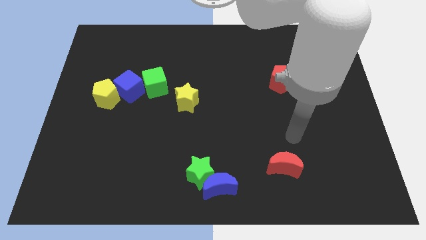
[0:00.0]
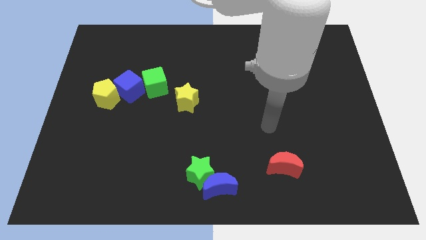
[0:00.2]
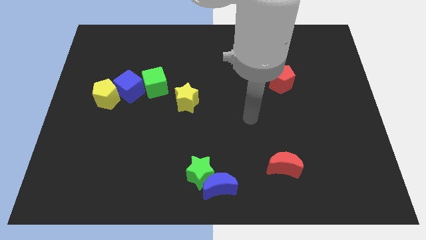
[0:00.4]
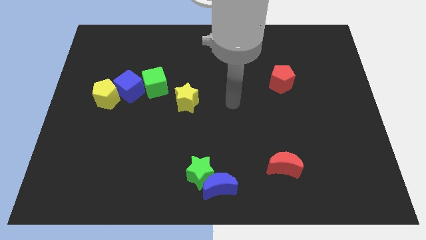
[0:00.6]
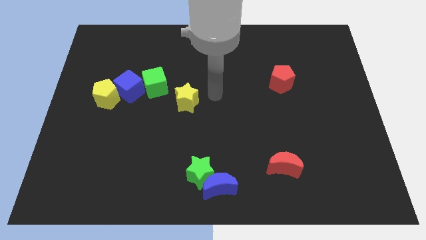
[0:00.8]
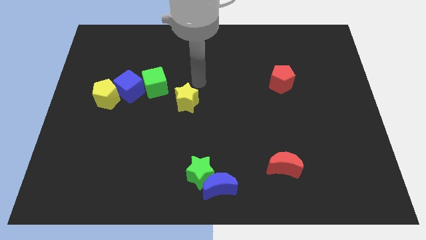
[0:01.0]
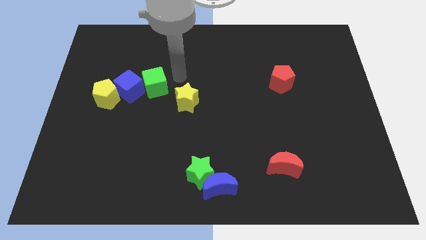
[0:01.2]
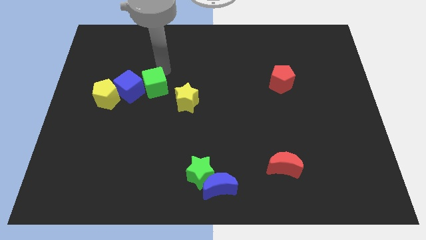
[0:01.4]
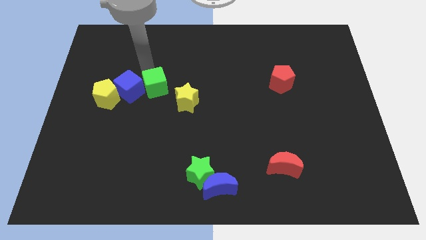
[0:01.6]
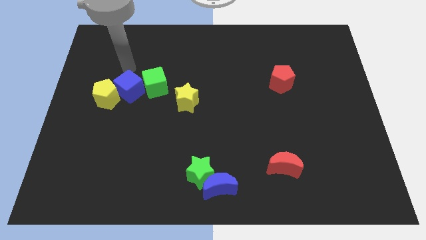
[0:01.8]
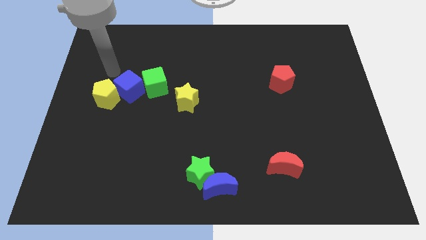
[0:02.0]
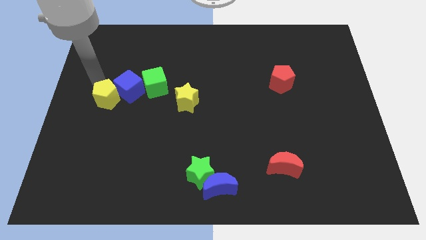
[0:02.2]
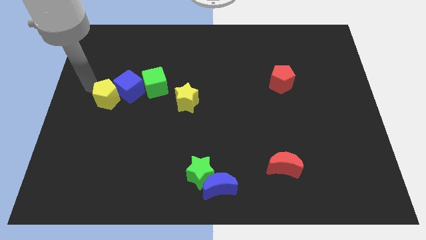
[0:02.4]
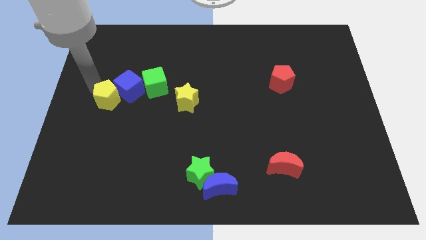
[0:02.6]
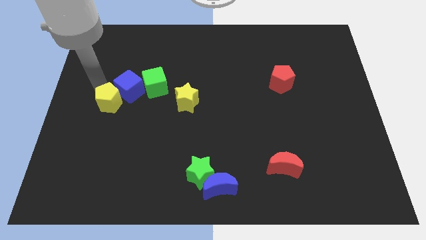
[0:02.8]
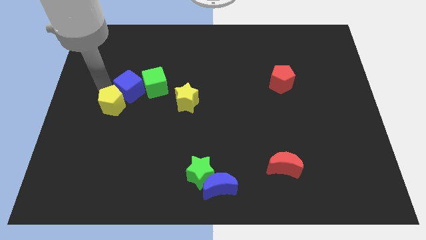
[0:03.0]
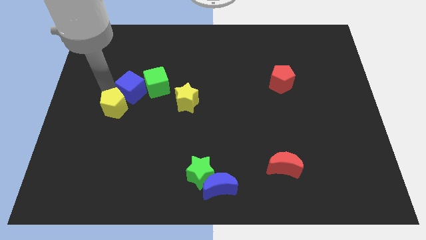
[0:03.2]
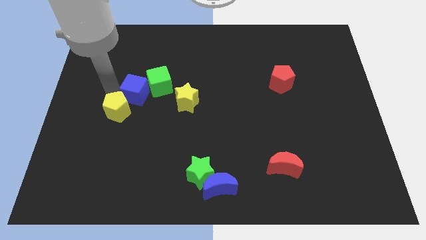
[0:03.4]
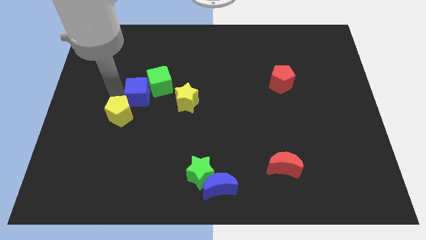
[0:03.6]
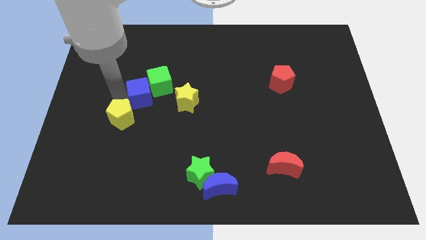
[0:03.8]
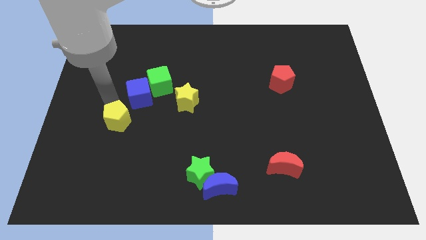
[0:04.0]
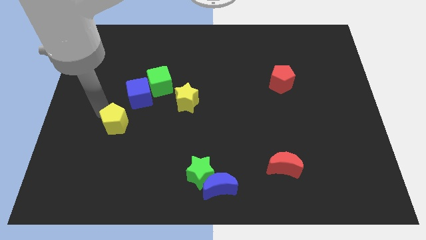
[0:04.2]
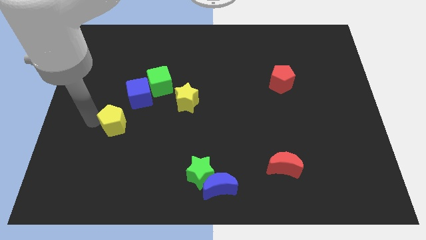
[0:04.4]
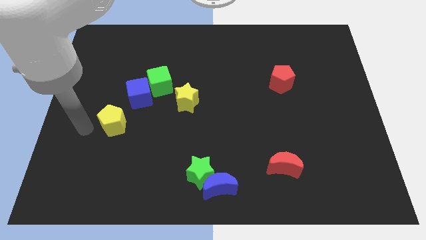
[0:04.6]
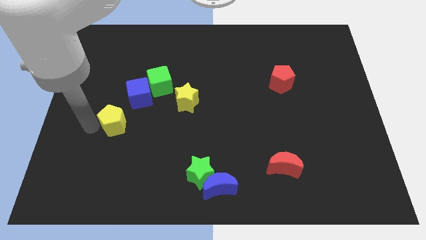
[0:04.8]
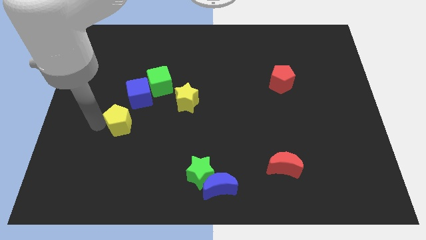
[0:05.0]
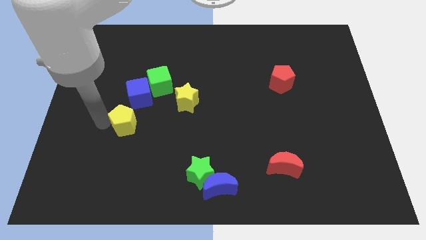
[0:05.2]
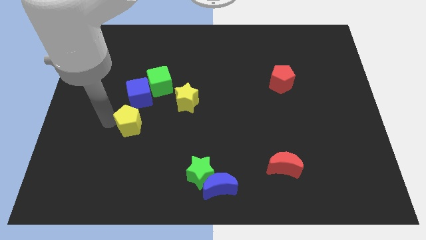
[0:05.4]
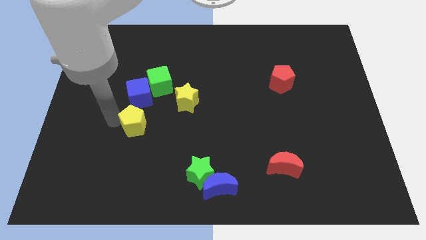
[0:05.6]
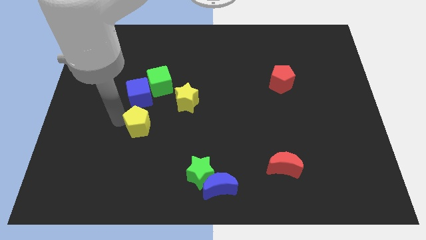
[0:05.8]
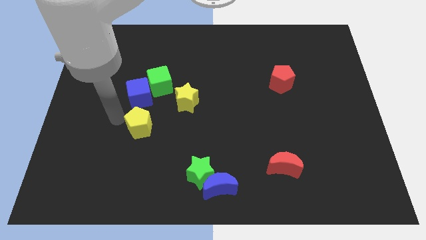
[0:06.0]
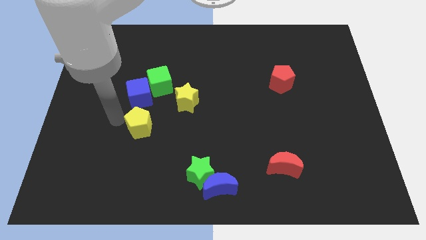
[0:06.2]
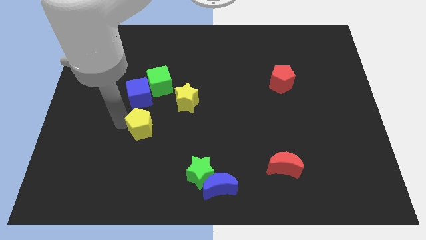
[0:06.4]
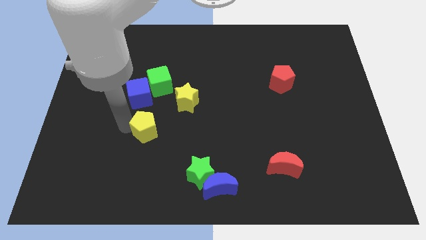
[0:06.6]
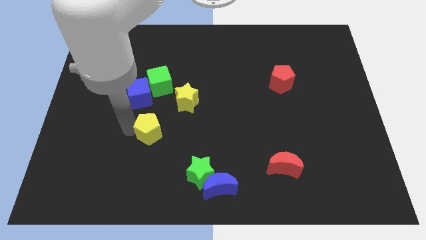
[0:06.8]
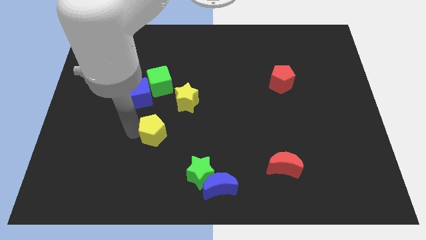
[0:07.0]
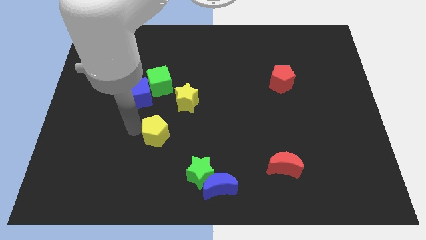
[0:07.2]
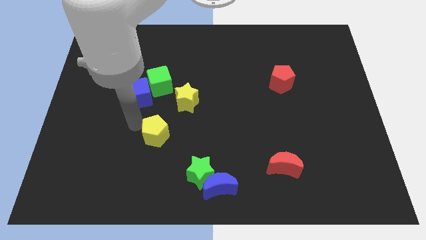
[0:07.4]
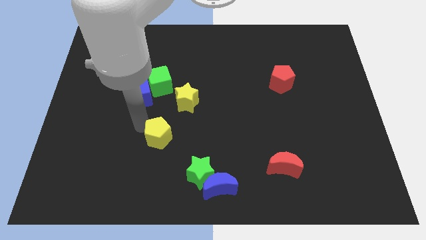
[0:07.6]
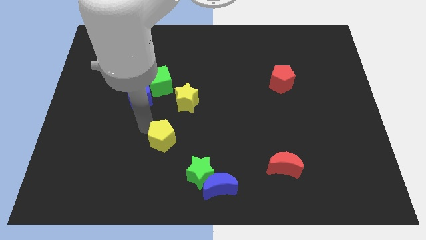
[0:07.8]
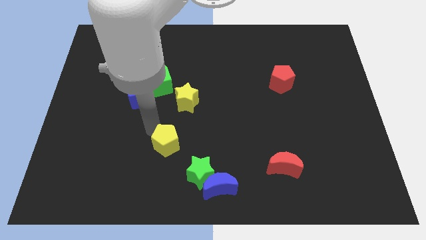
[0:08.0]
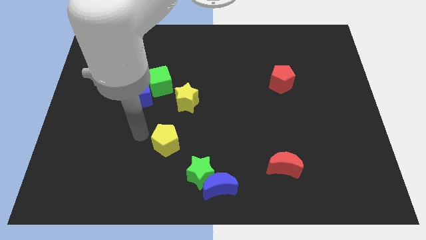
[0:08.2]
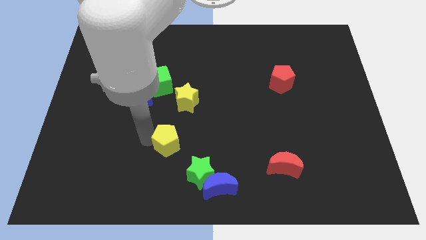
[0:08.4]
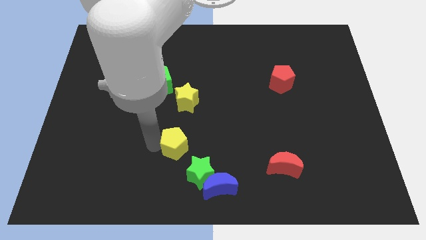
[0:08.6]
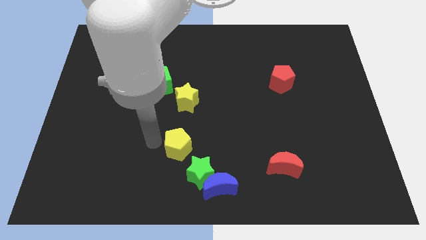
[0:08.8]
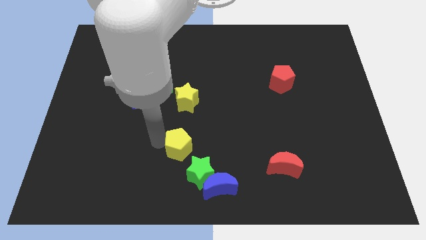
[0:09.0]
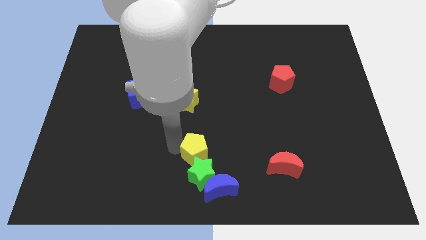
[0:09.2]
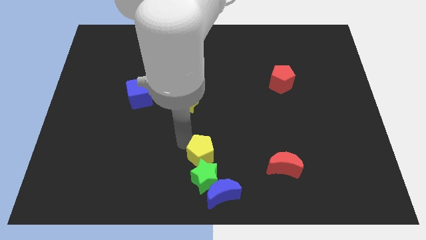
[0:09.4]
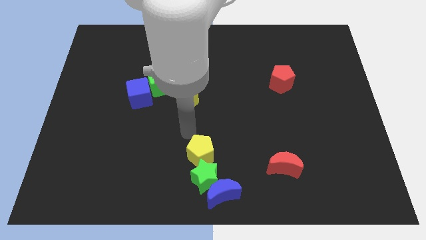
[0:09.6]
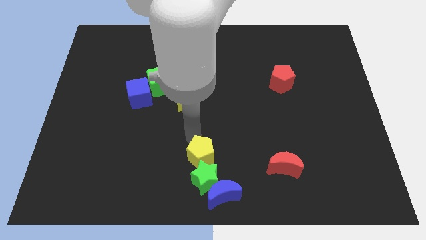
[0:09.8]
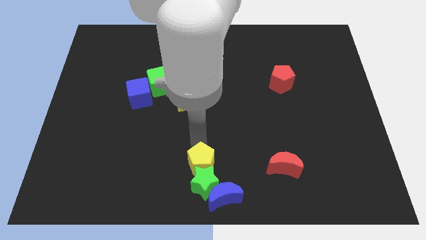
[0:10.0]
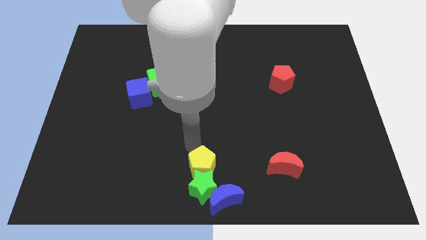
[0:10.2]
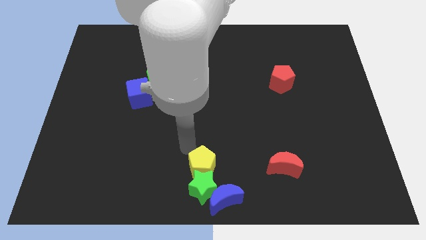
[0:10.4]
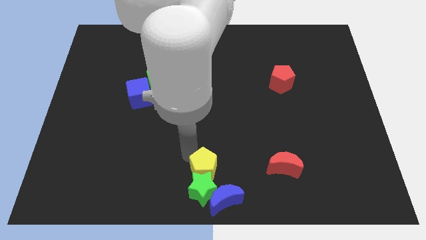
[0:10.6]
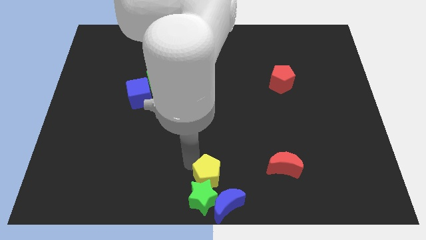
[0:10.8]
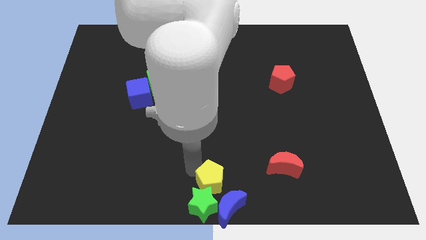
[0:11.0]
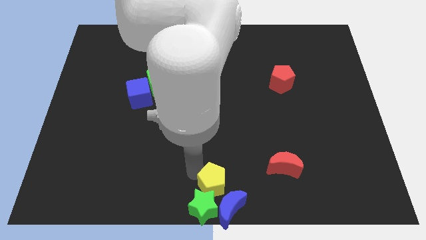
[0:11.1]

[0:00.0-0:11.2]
slide the yellow pentagon towards the blue moon

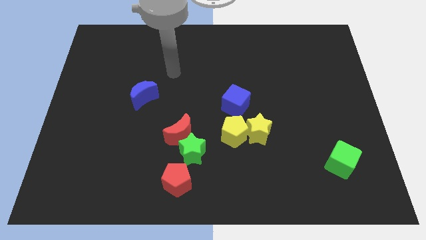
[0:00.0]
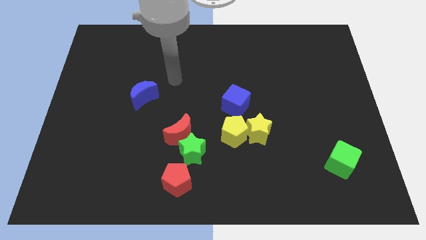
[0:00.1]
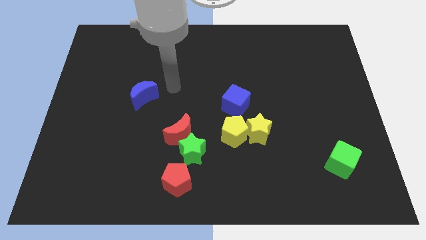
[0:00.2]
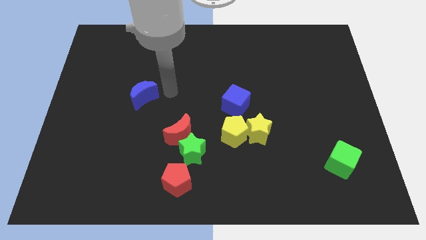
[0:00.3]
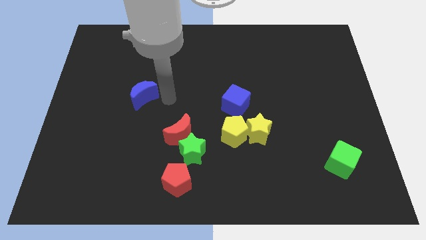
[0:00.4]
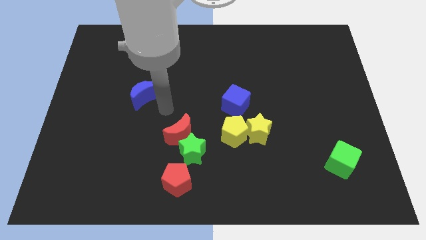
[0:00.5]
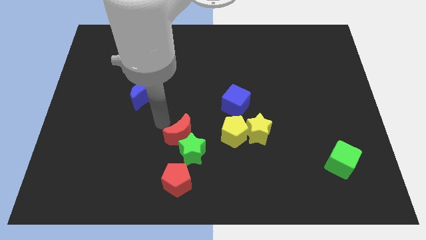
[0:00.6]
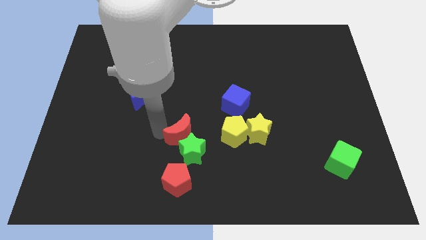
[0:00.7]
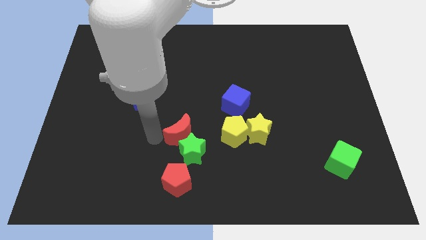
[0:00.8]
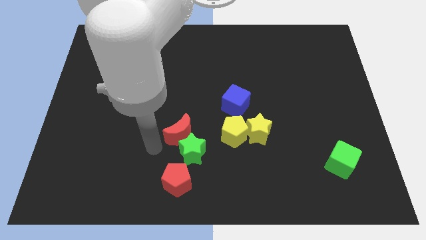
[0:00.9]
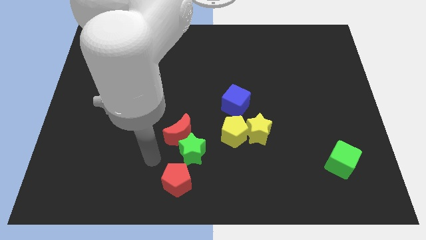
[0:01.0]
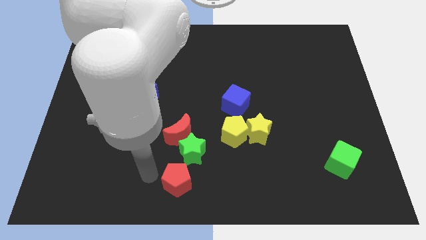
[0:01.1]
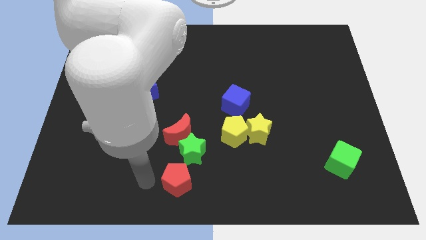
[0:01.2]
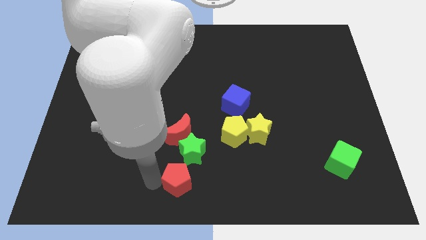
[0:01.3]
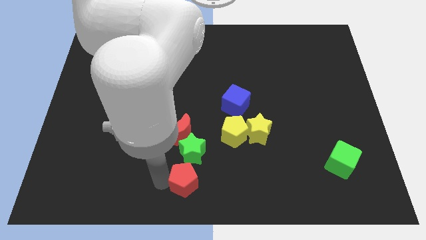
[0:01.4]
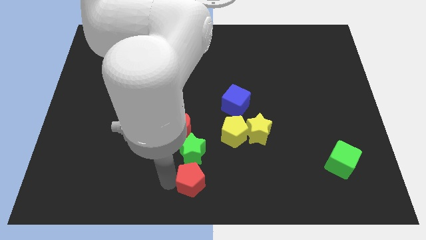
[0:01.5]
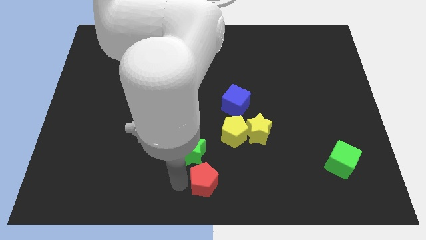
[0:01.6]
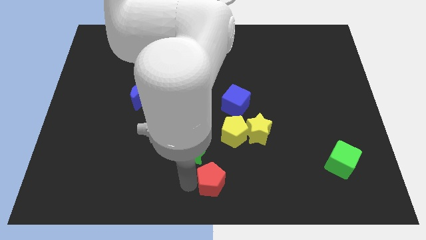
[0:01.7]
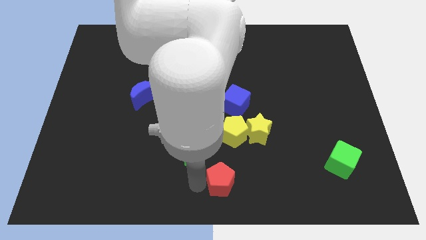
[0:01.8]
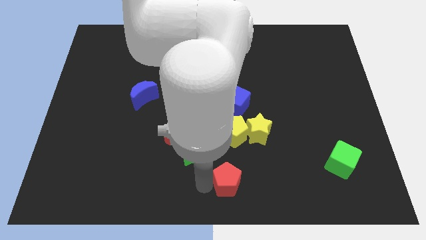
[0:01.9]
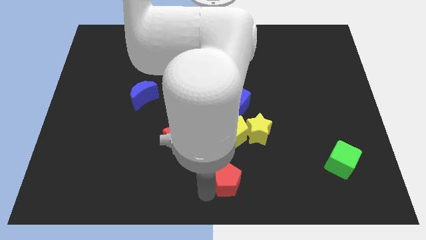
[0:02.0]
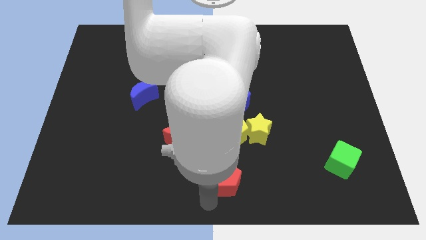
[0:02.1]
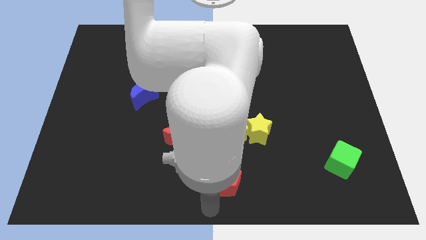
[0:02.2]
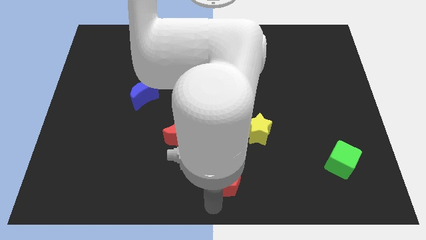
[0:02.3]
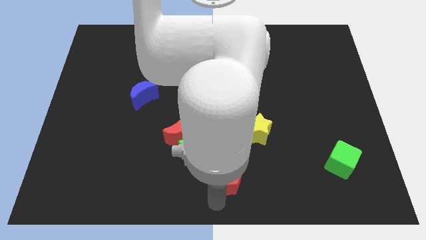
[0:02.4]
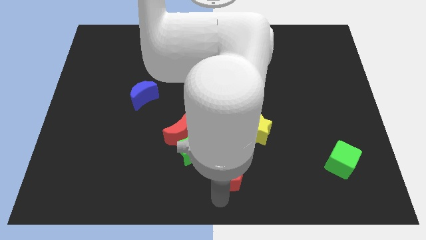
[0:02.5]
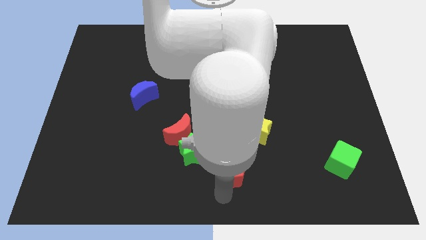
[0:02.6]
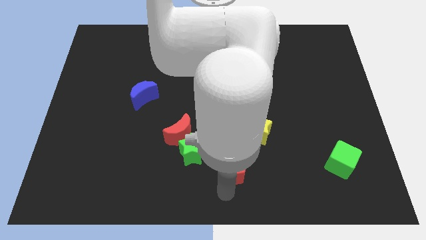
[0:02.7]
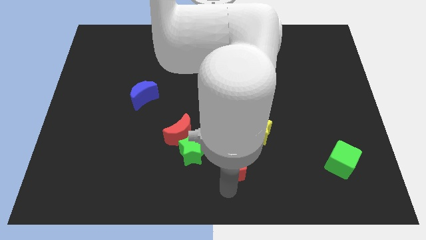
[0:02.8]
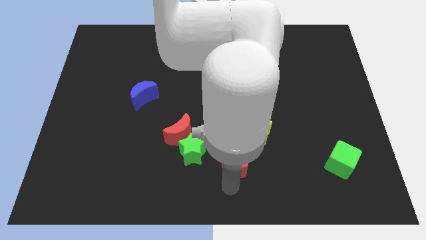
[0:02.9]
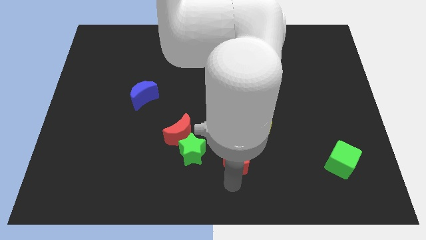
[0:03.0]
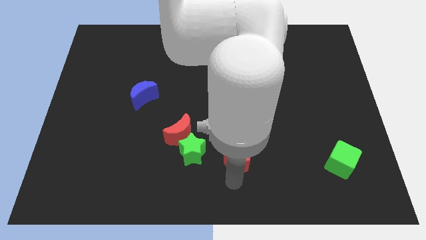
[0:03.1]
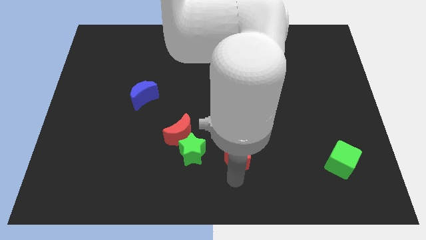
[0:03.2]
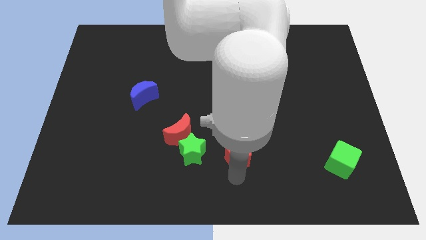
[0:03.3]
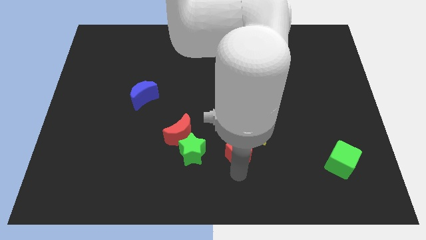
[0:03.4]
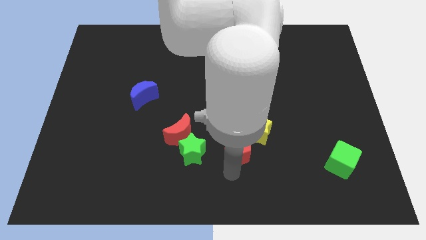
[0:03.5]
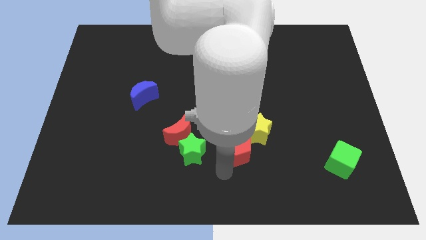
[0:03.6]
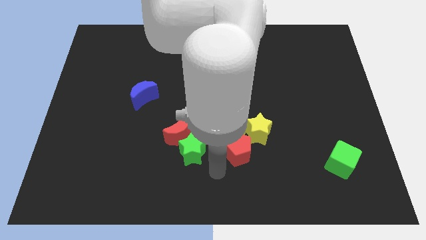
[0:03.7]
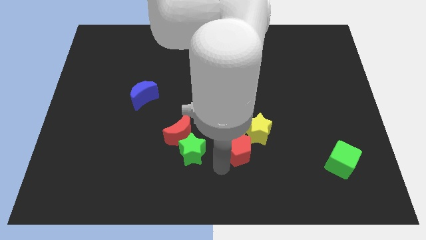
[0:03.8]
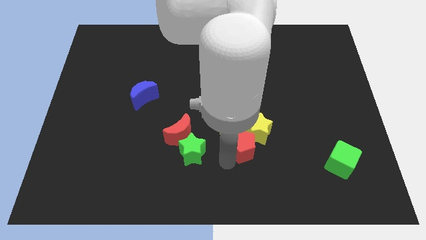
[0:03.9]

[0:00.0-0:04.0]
put the red pentagon next to the yellow star
